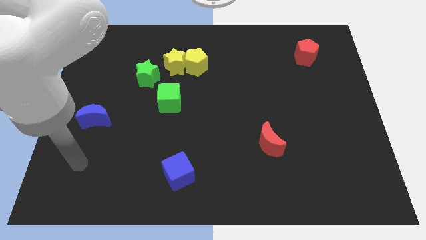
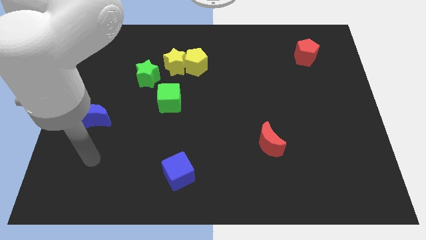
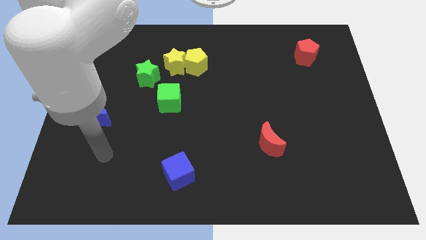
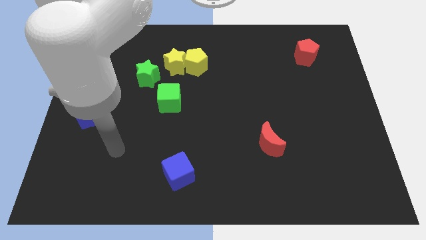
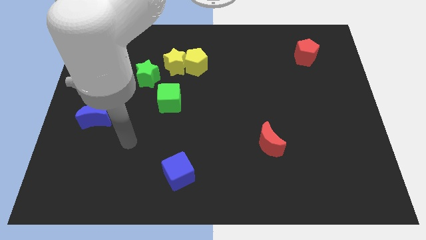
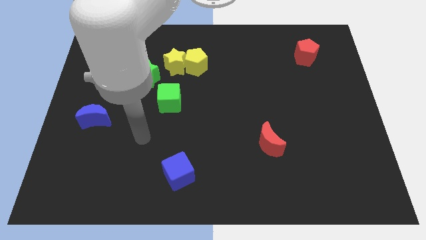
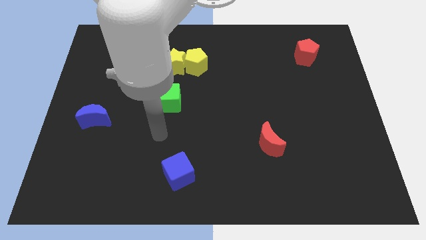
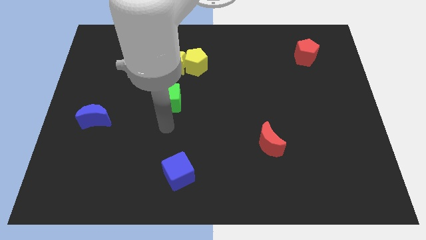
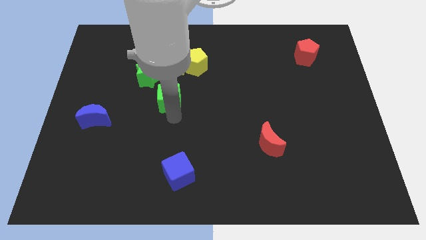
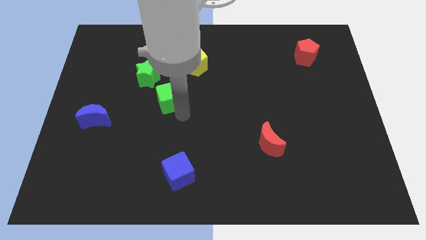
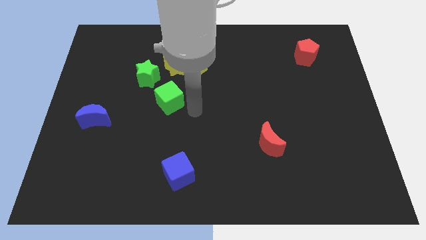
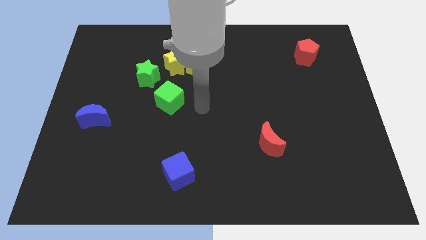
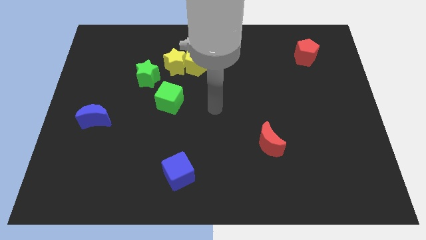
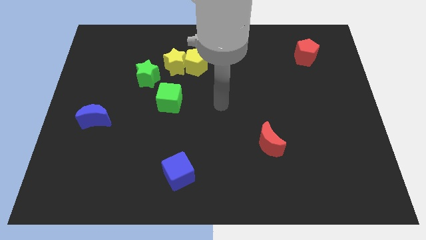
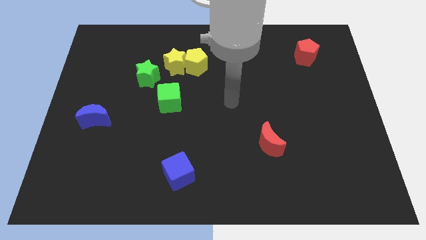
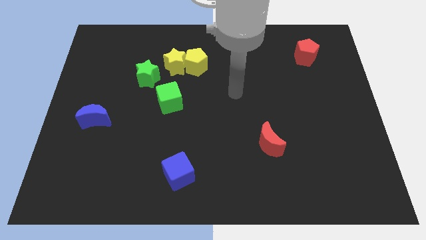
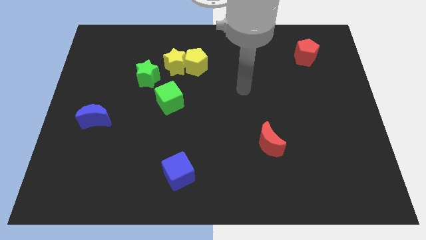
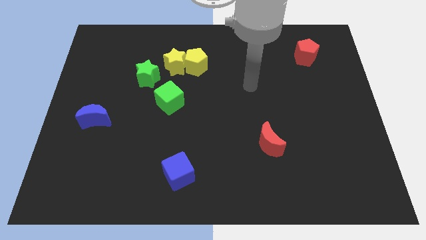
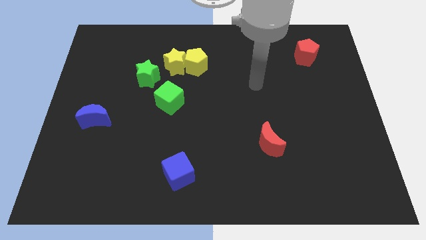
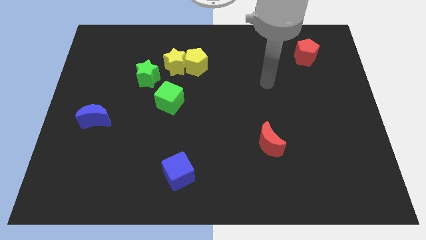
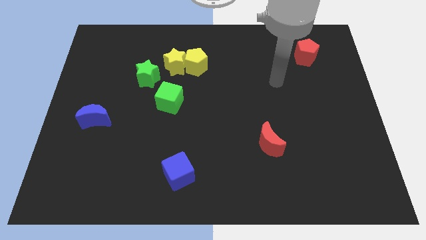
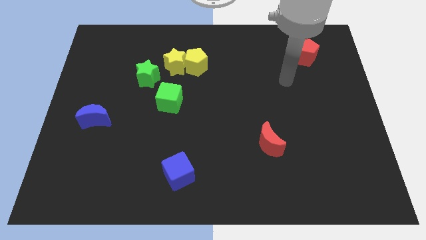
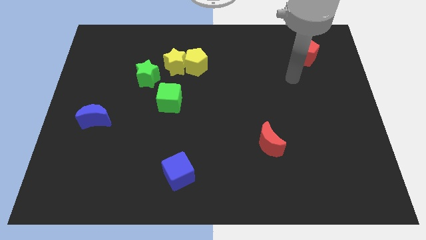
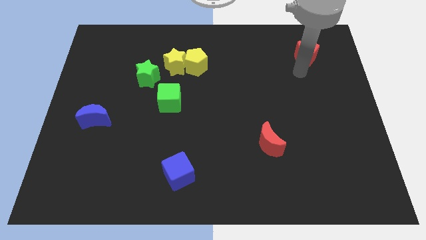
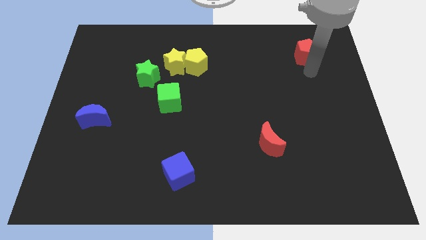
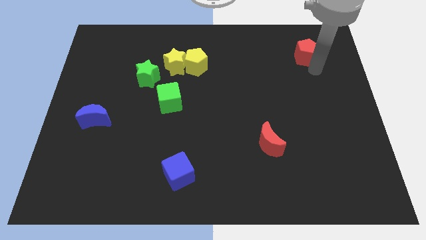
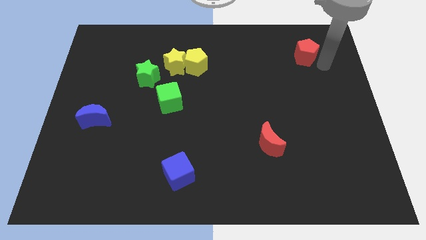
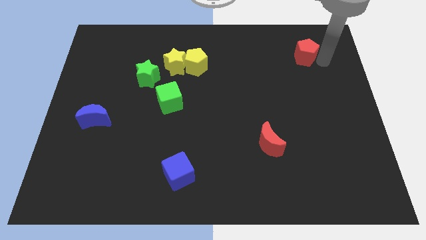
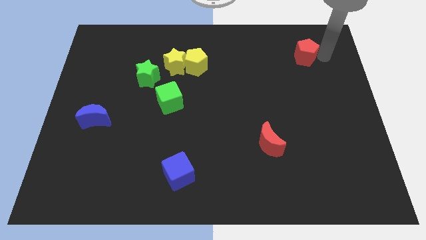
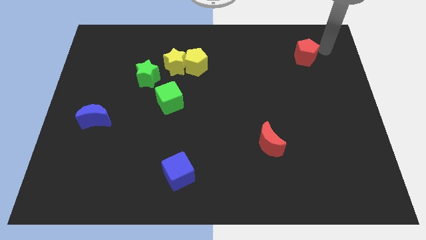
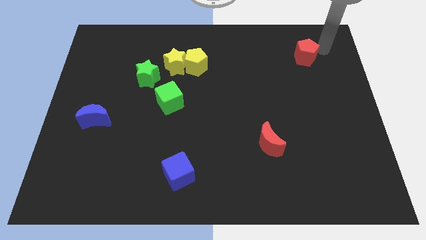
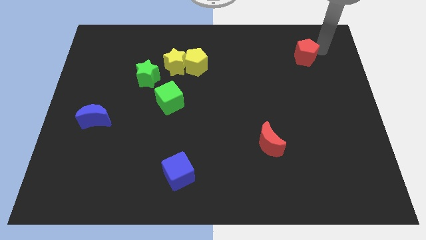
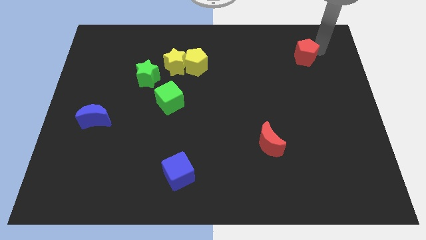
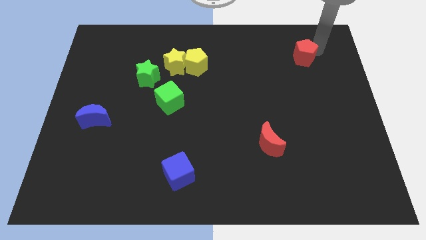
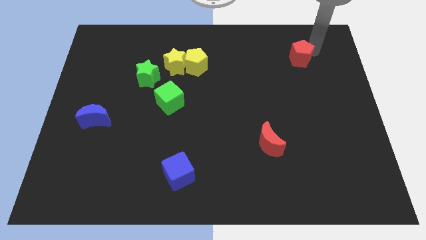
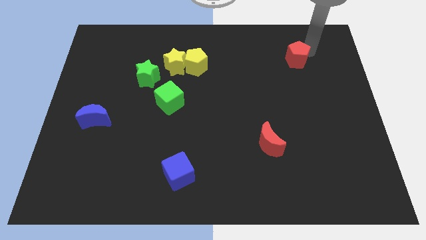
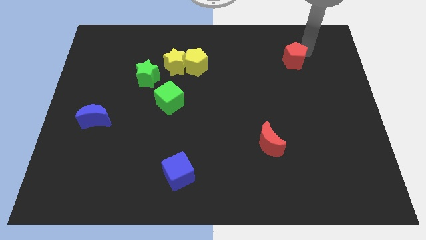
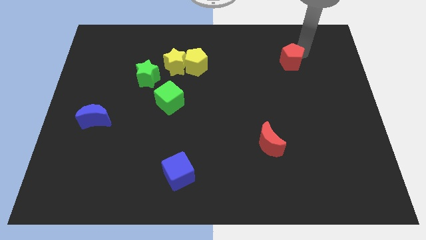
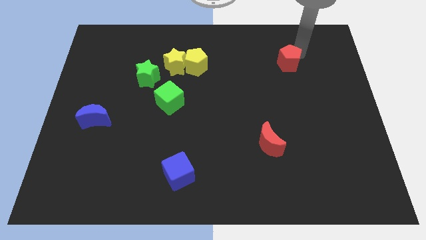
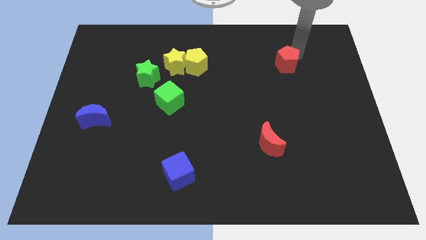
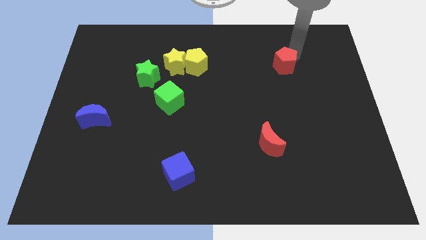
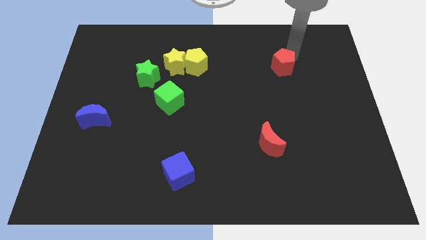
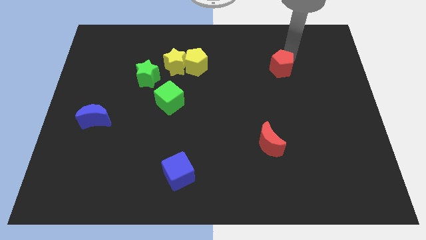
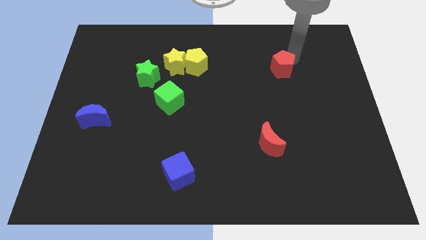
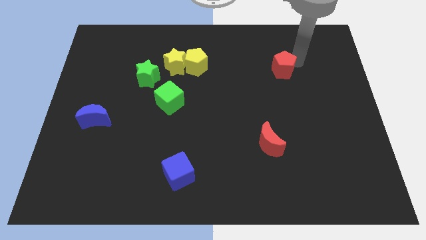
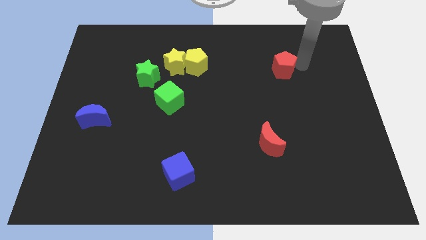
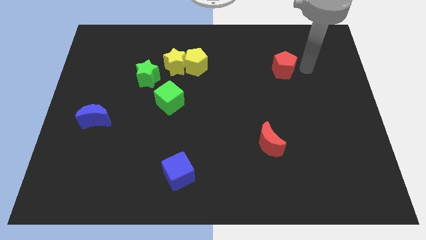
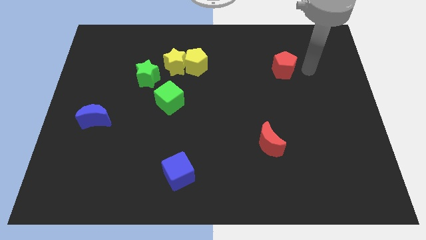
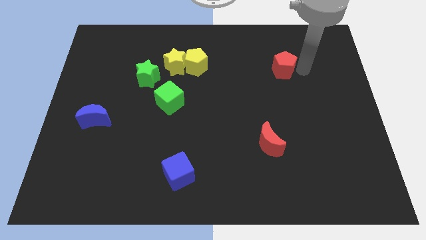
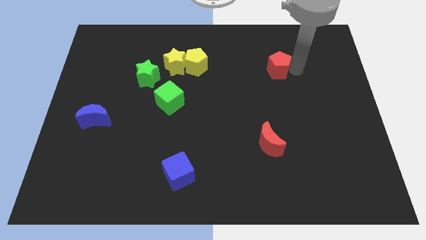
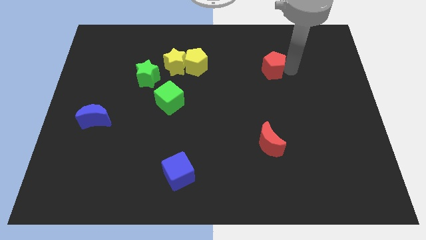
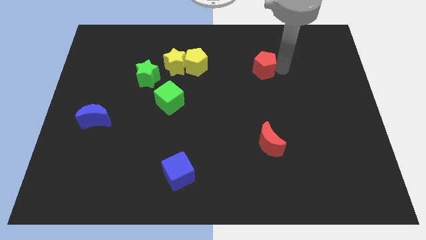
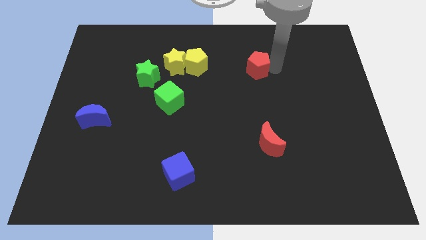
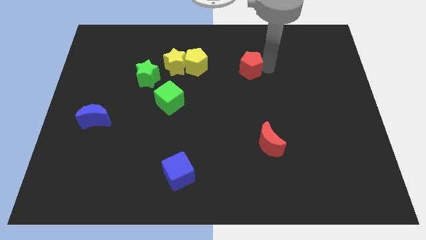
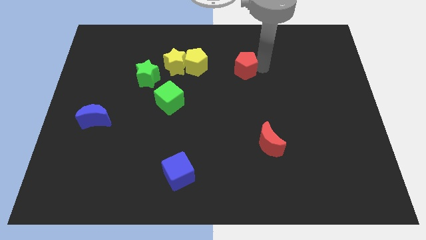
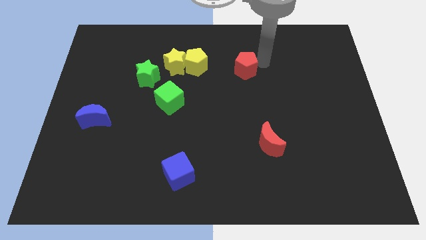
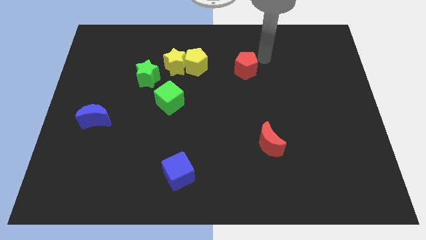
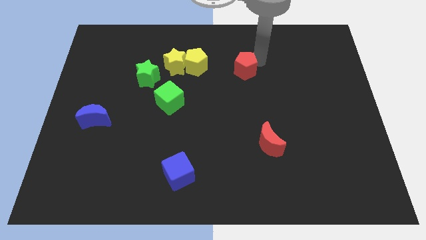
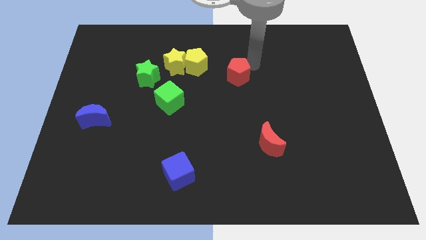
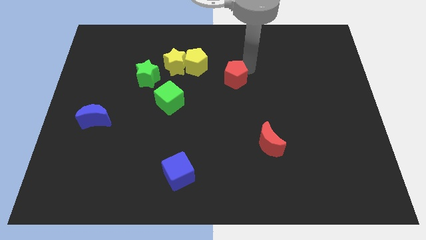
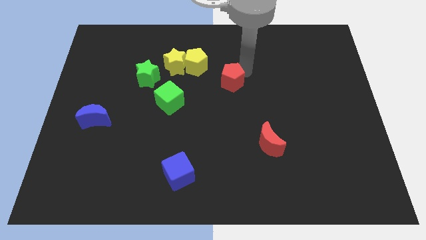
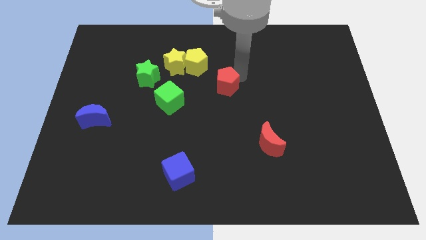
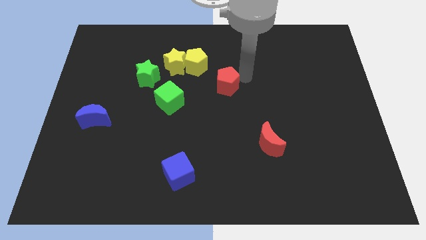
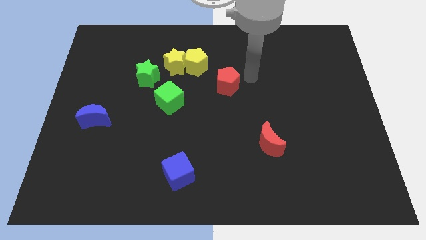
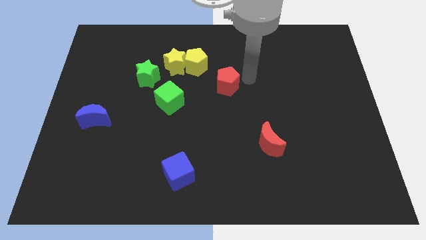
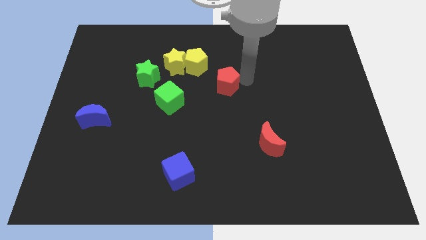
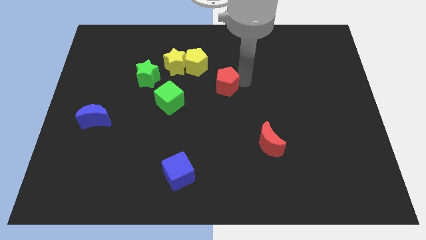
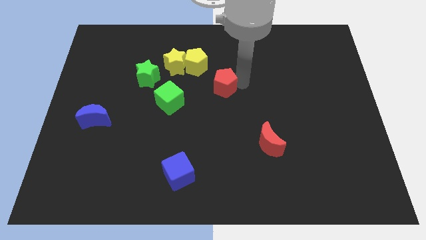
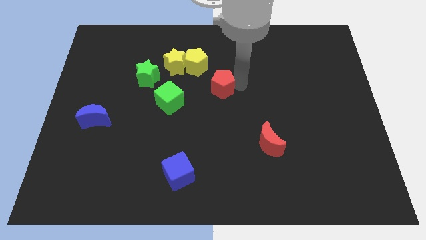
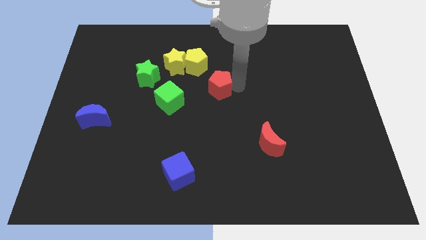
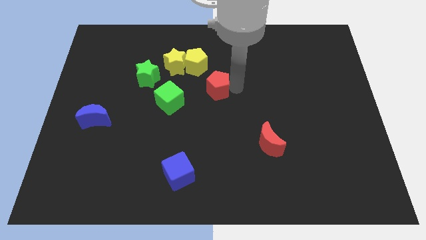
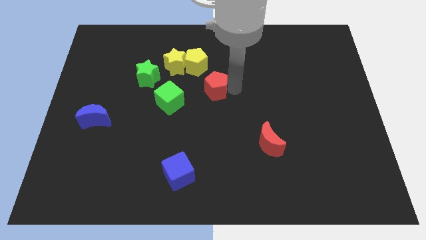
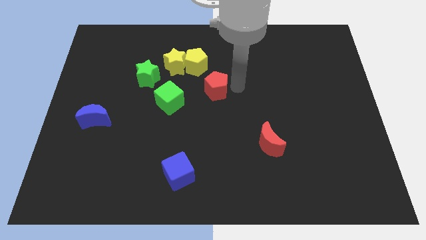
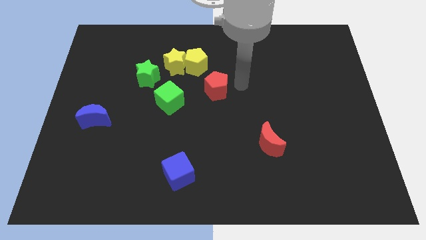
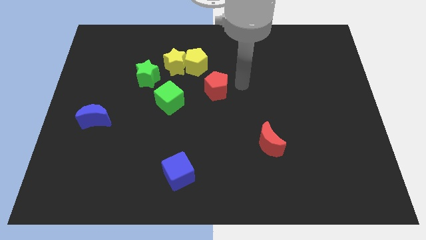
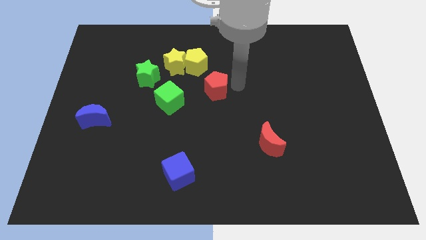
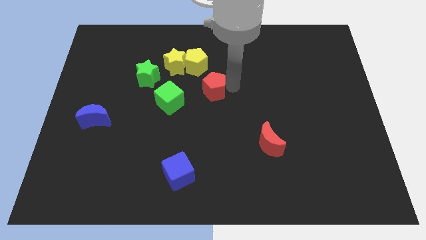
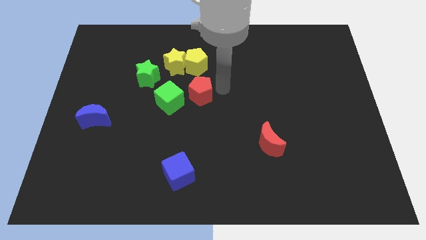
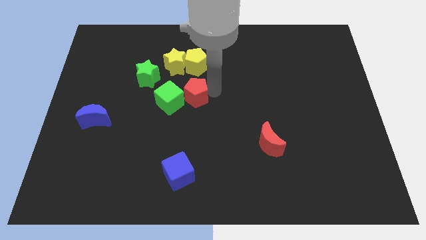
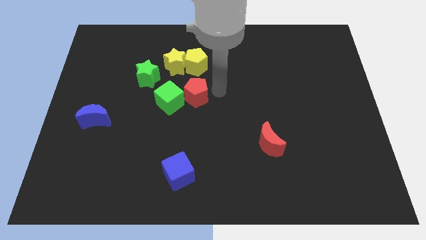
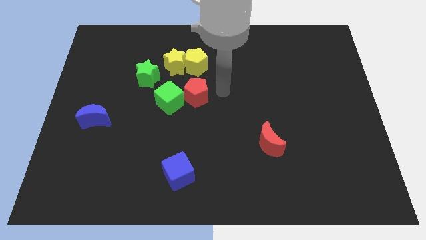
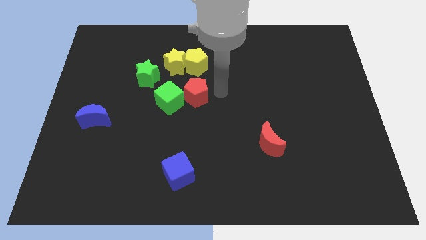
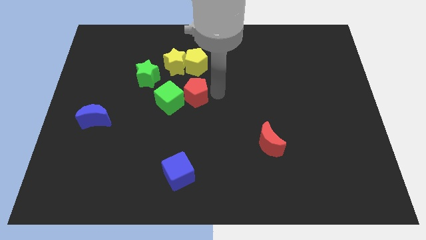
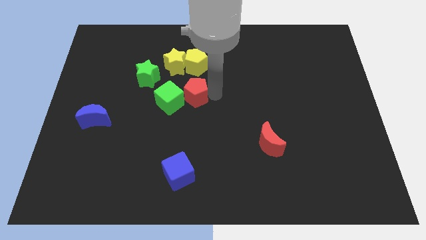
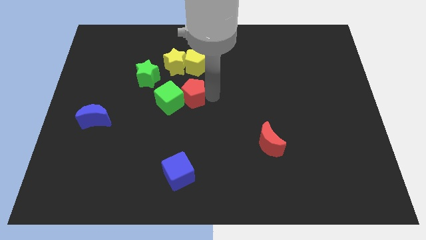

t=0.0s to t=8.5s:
put the red pentagon close to the green cube
